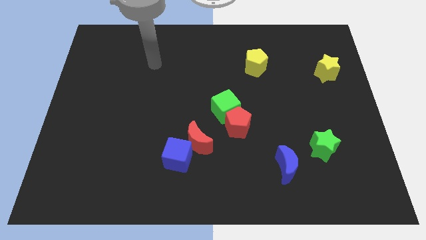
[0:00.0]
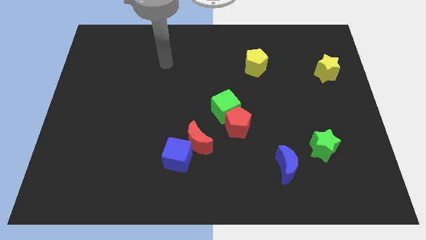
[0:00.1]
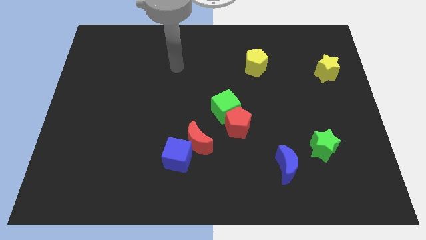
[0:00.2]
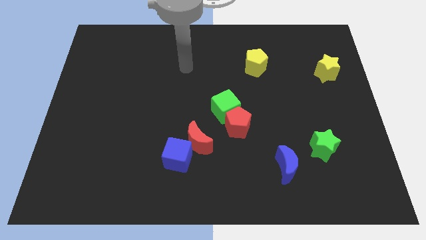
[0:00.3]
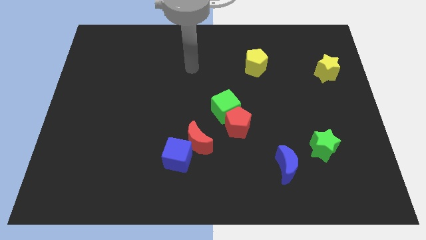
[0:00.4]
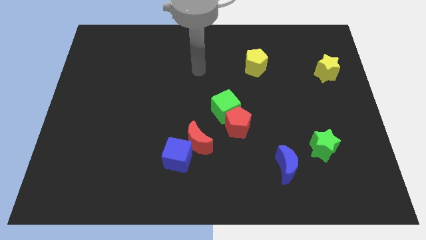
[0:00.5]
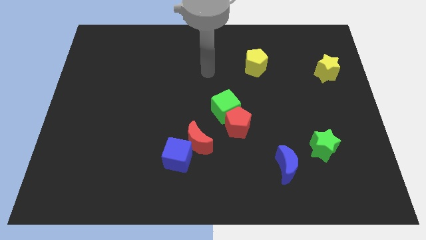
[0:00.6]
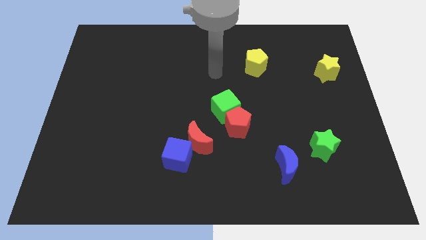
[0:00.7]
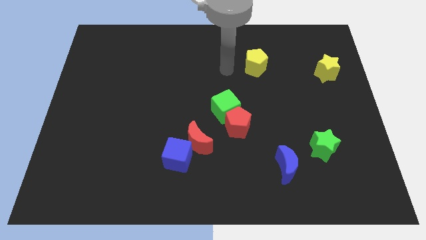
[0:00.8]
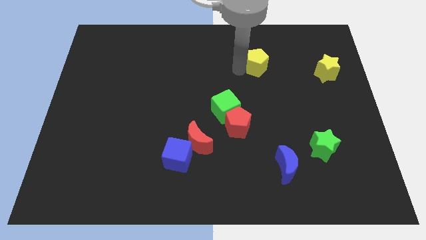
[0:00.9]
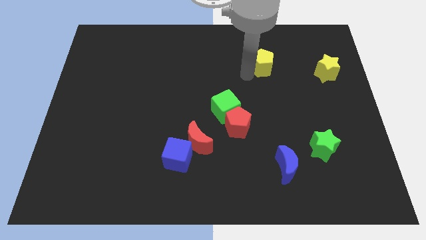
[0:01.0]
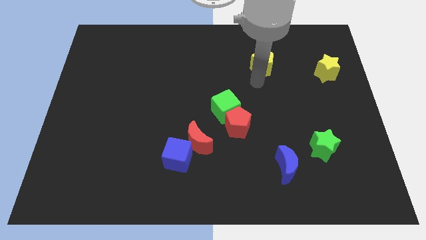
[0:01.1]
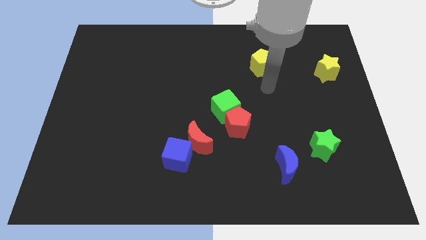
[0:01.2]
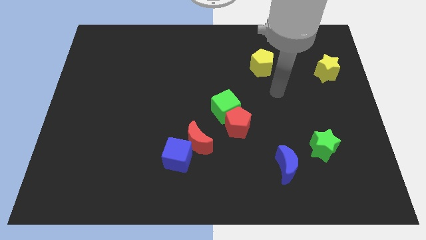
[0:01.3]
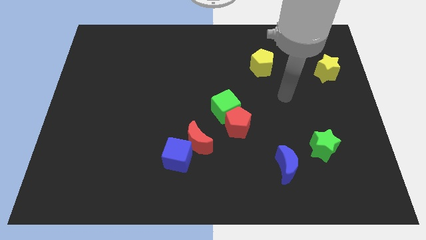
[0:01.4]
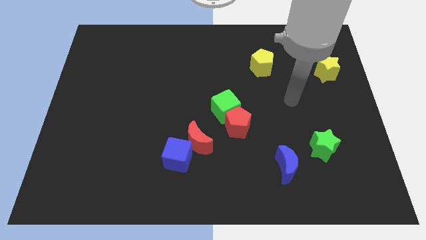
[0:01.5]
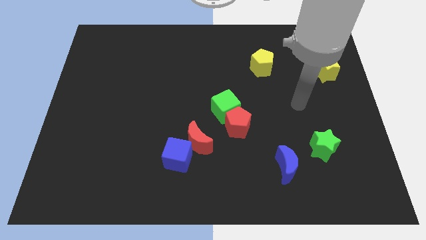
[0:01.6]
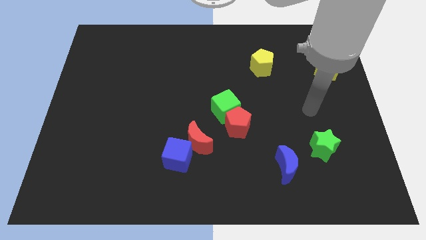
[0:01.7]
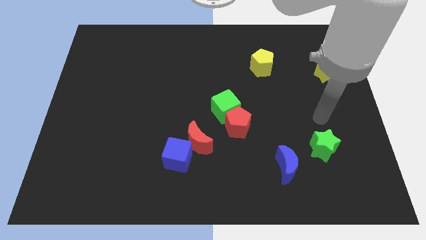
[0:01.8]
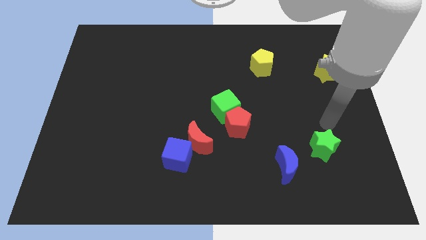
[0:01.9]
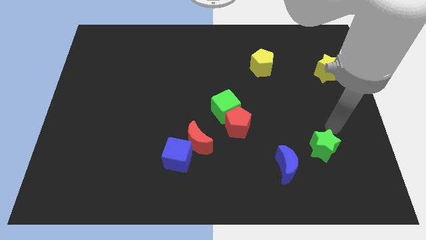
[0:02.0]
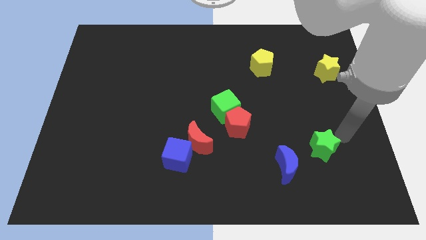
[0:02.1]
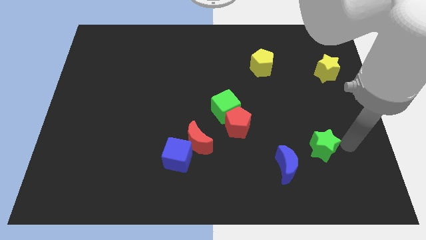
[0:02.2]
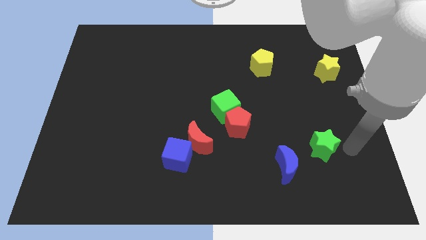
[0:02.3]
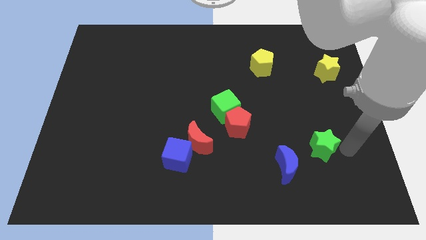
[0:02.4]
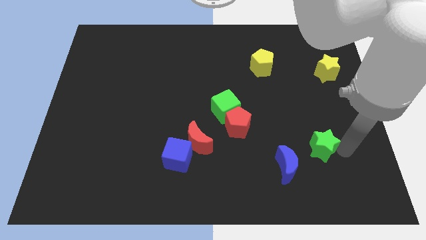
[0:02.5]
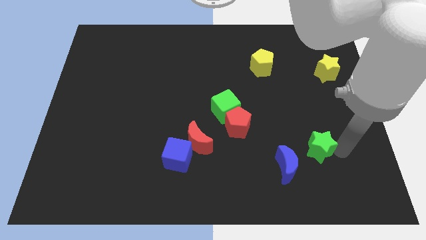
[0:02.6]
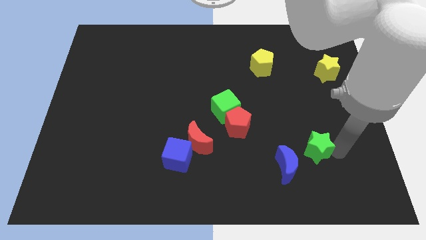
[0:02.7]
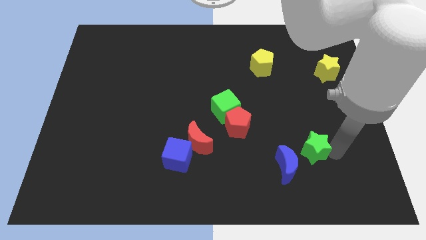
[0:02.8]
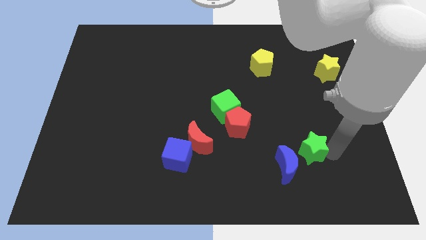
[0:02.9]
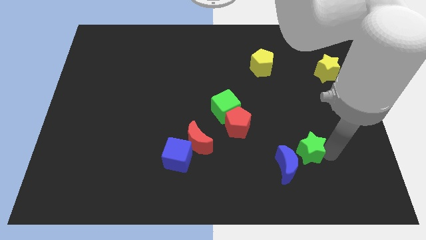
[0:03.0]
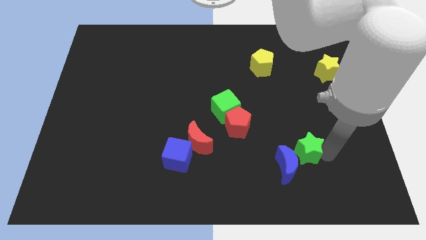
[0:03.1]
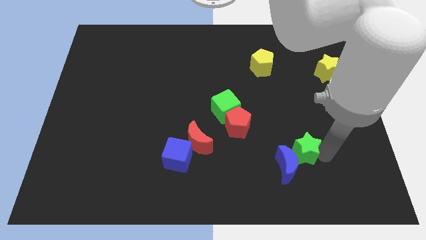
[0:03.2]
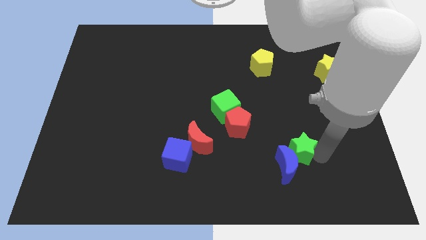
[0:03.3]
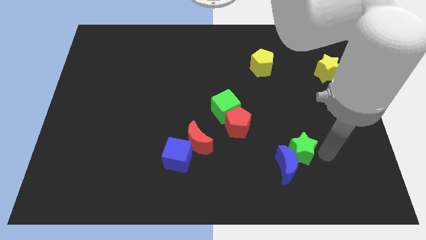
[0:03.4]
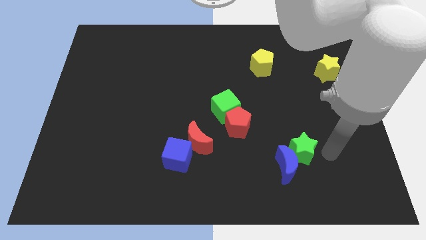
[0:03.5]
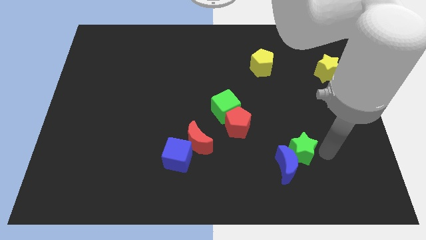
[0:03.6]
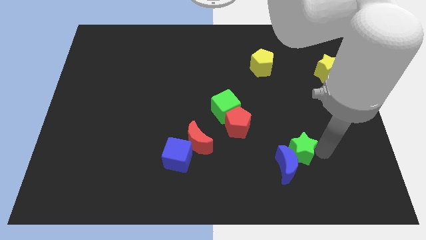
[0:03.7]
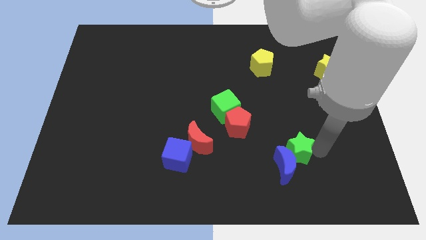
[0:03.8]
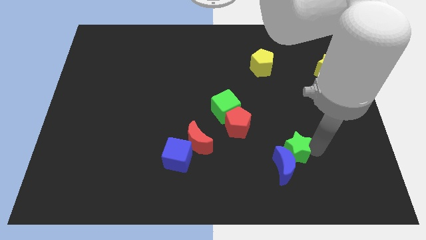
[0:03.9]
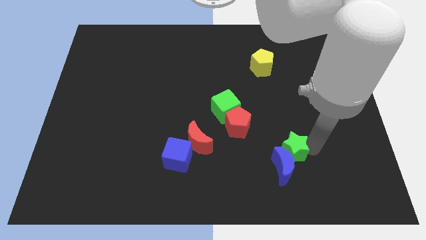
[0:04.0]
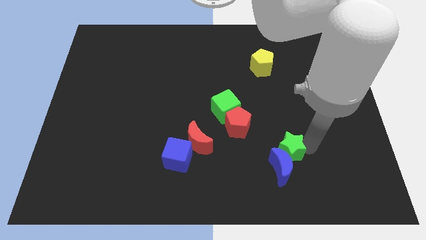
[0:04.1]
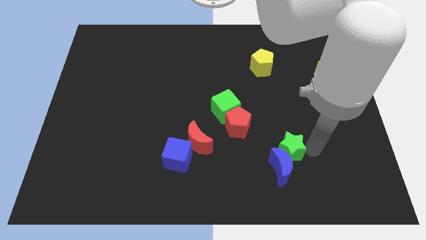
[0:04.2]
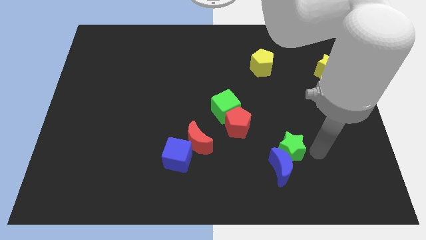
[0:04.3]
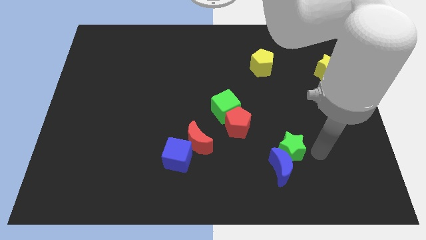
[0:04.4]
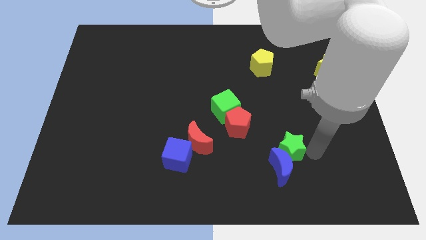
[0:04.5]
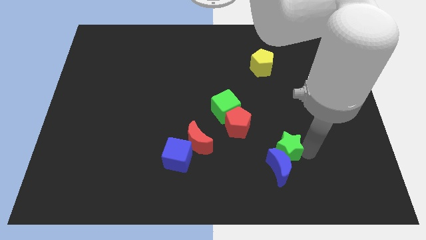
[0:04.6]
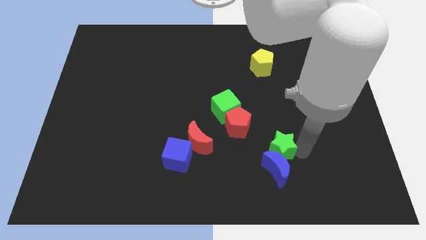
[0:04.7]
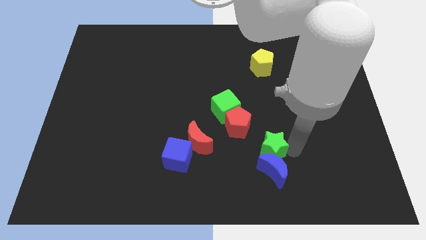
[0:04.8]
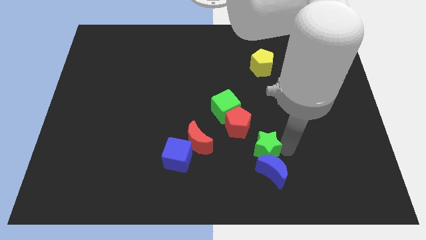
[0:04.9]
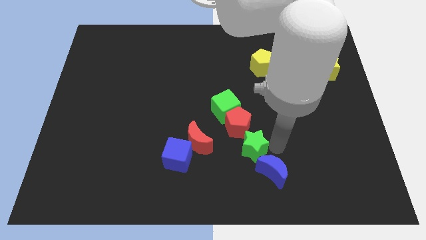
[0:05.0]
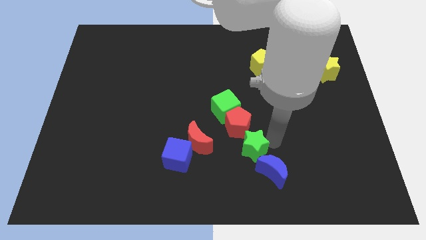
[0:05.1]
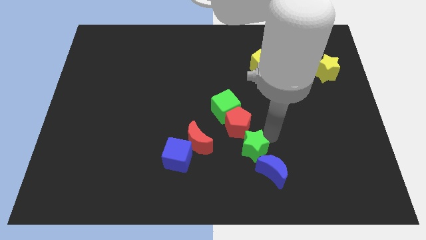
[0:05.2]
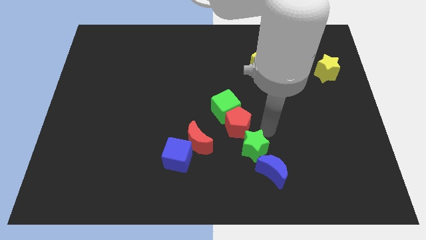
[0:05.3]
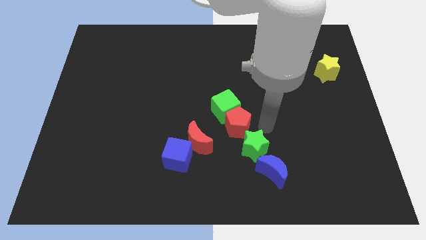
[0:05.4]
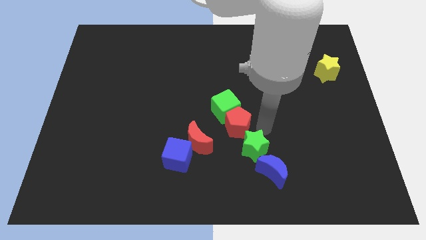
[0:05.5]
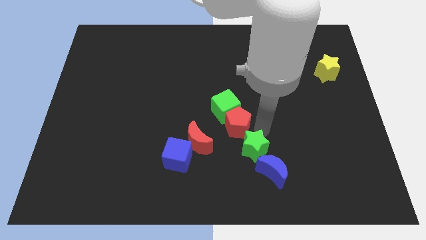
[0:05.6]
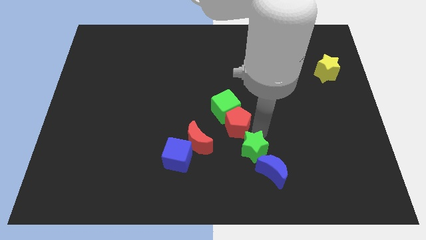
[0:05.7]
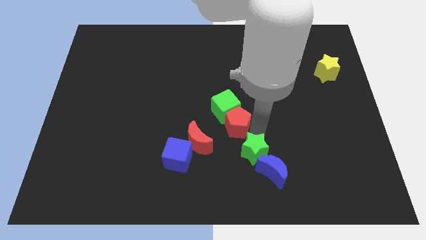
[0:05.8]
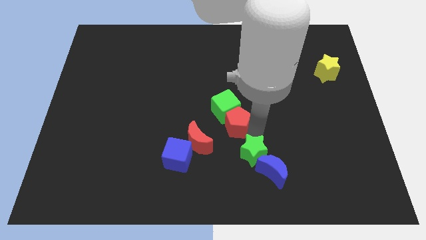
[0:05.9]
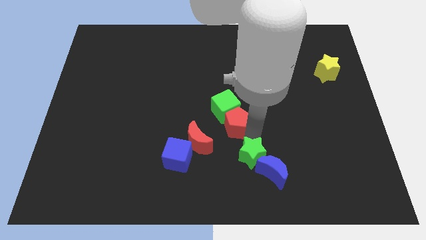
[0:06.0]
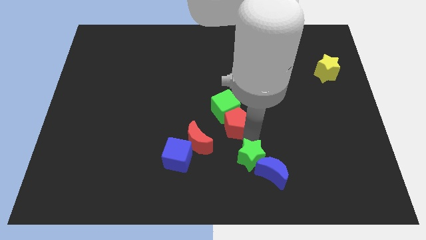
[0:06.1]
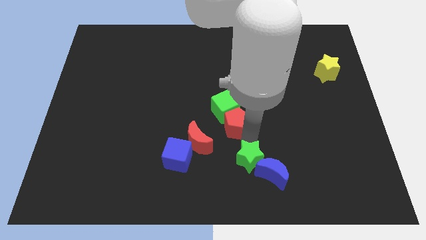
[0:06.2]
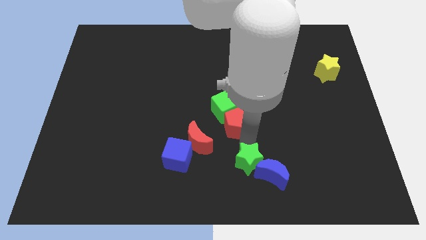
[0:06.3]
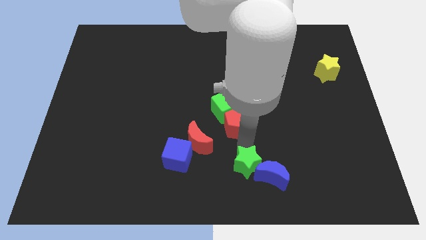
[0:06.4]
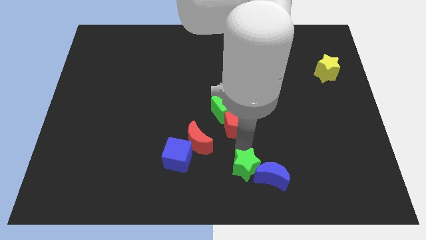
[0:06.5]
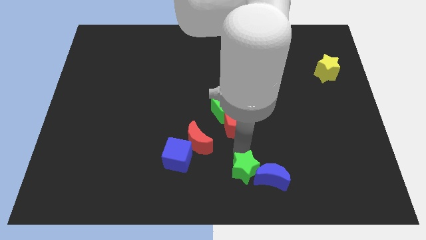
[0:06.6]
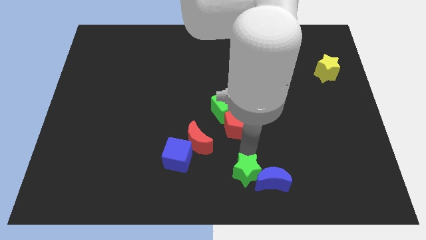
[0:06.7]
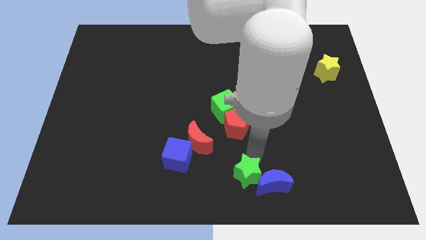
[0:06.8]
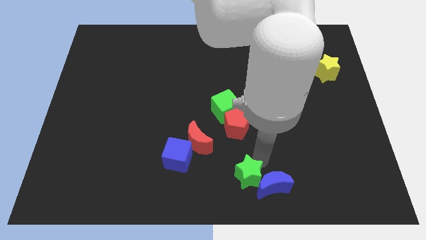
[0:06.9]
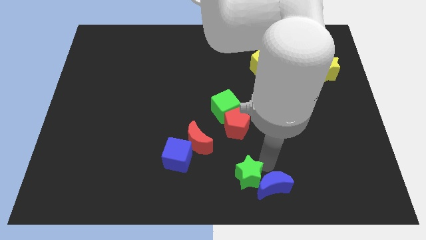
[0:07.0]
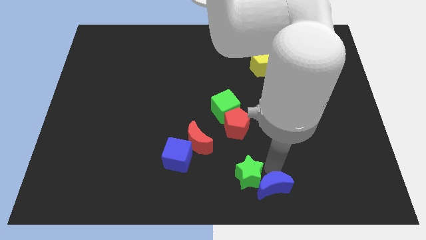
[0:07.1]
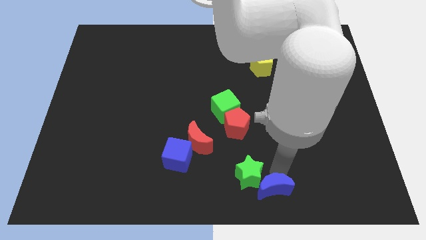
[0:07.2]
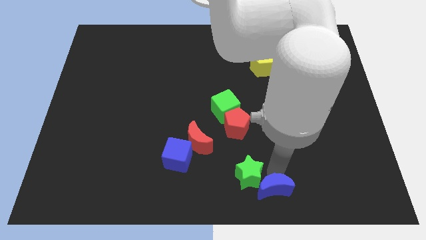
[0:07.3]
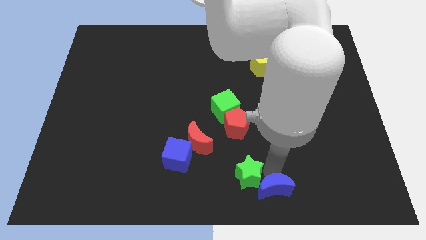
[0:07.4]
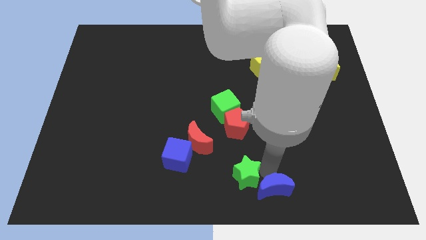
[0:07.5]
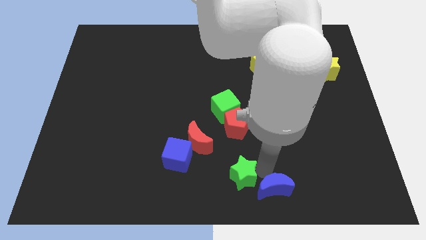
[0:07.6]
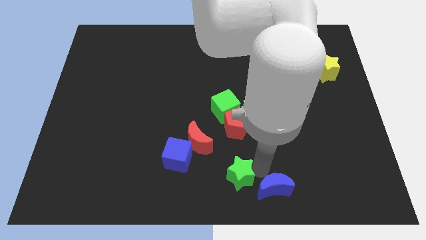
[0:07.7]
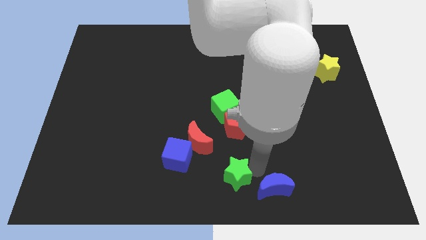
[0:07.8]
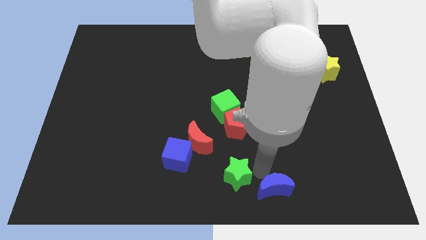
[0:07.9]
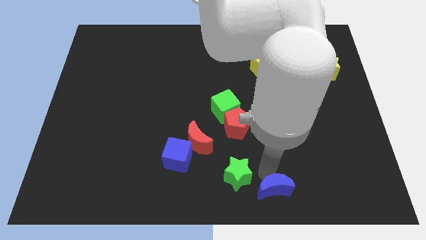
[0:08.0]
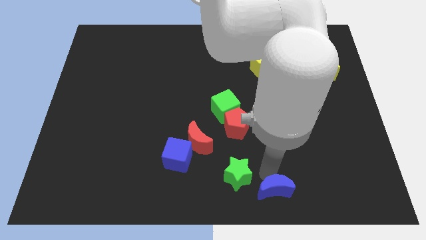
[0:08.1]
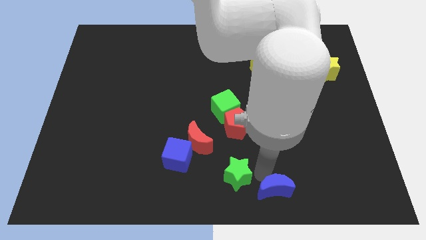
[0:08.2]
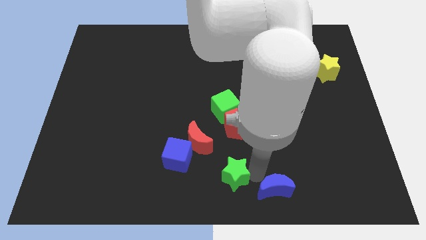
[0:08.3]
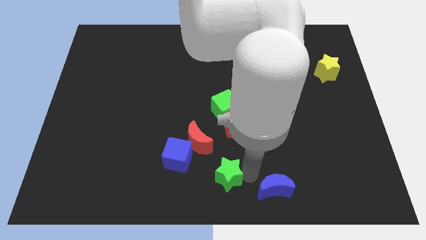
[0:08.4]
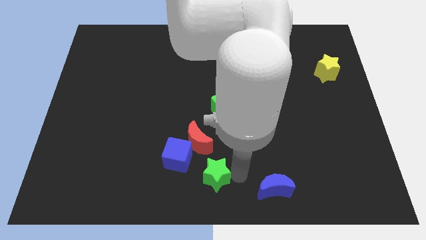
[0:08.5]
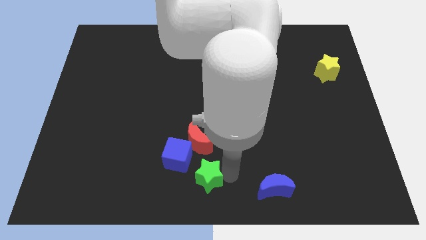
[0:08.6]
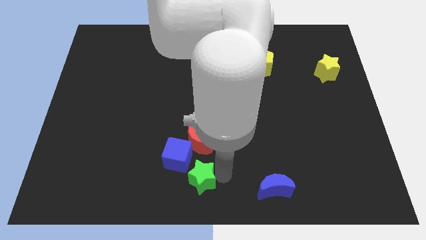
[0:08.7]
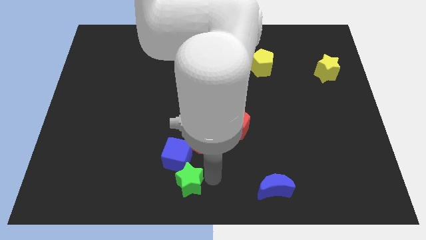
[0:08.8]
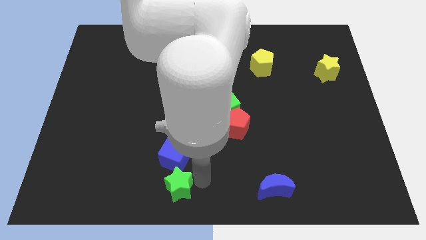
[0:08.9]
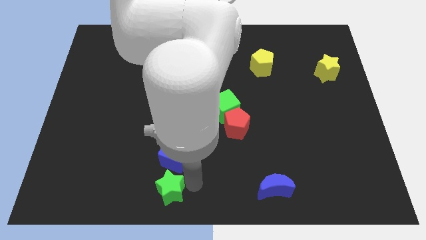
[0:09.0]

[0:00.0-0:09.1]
put the green star to the bottom left of the blue cube
